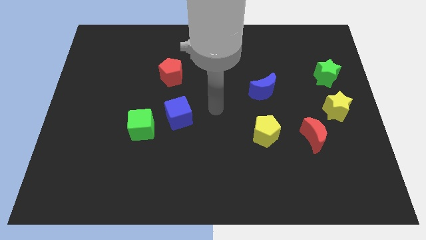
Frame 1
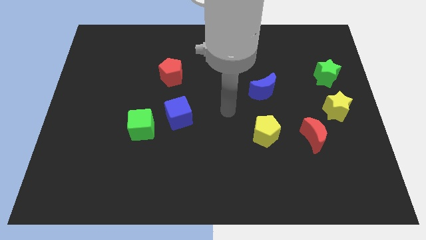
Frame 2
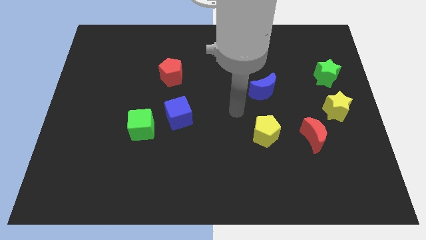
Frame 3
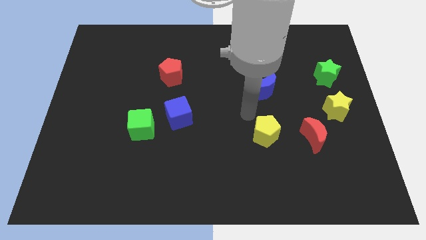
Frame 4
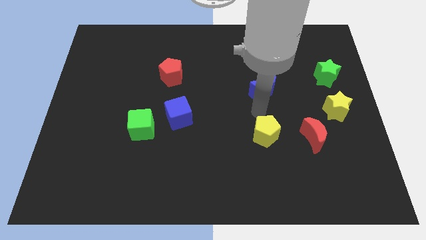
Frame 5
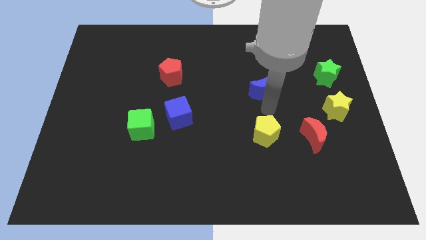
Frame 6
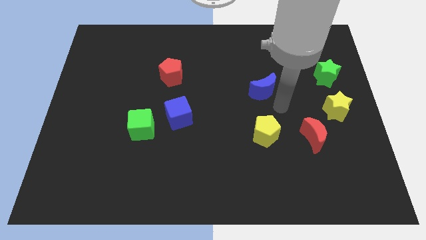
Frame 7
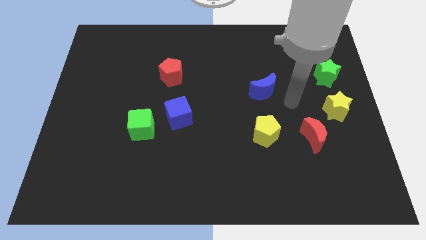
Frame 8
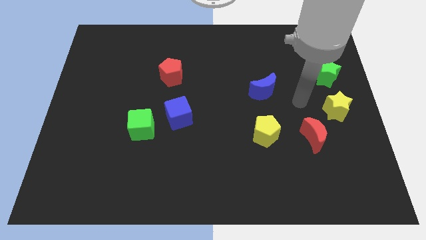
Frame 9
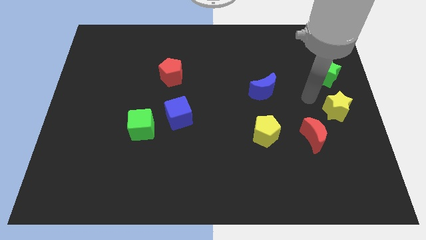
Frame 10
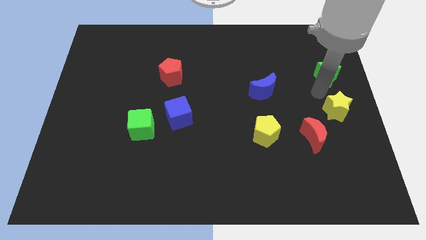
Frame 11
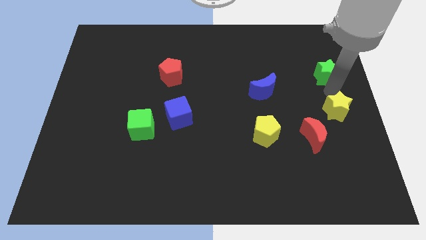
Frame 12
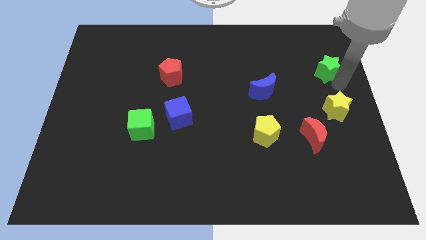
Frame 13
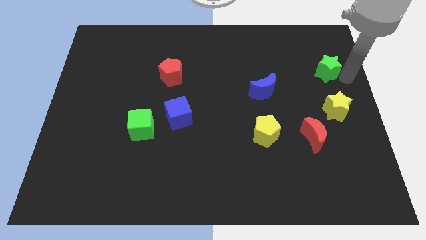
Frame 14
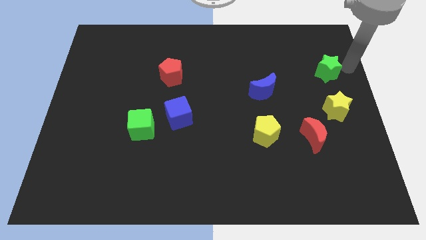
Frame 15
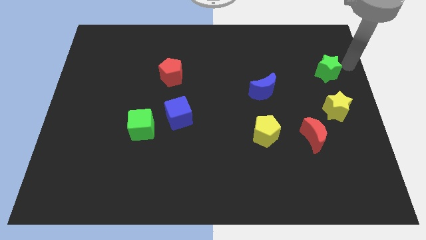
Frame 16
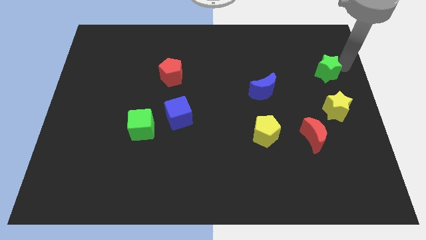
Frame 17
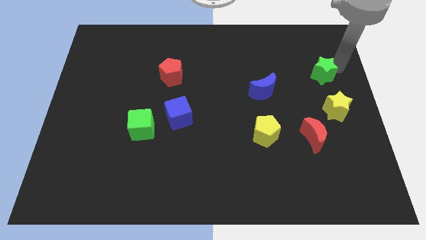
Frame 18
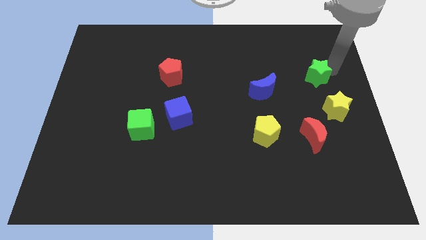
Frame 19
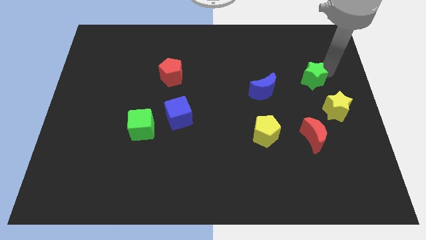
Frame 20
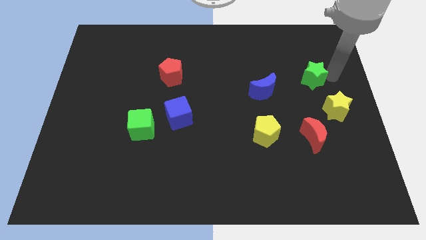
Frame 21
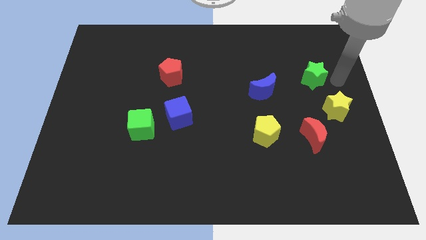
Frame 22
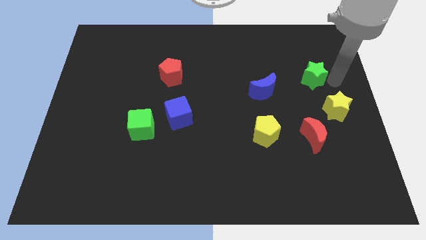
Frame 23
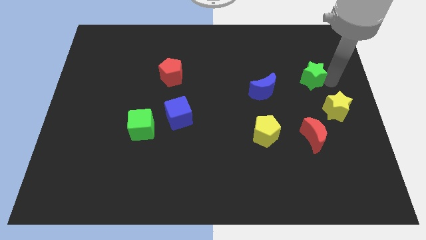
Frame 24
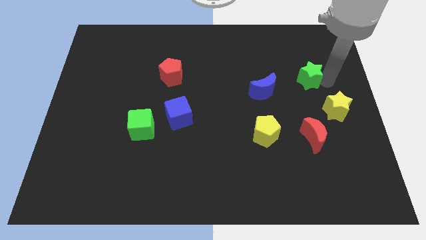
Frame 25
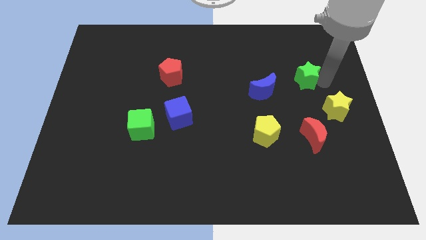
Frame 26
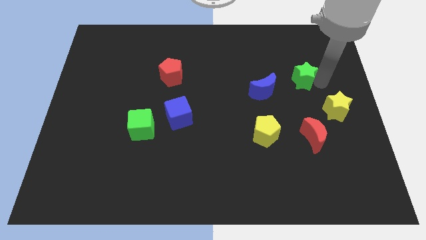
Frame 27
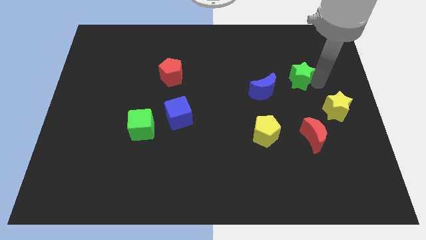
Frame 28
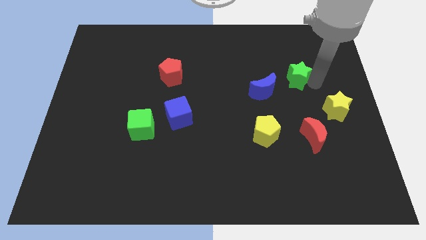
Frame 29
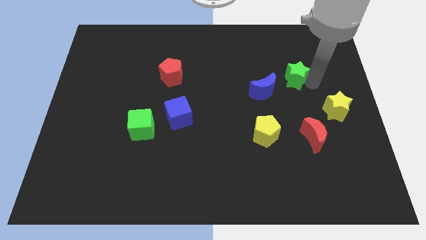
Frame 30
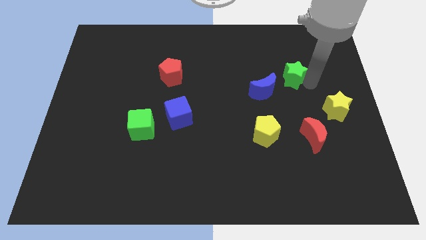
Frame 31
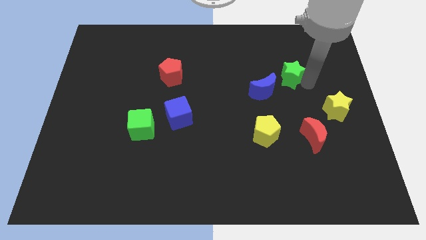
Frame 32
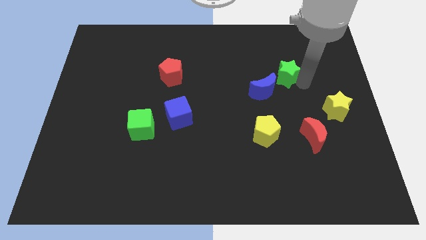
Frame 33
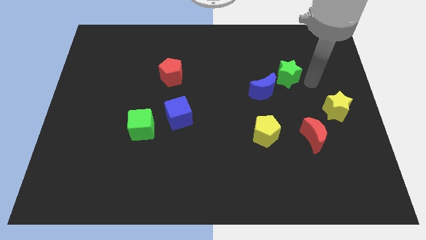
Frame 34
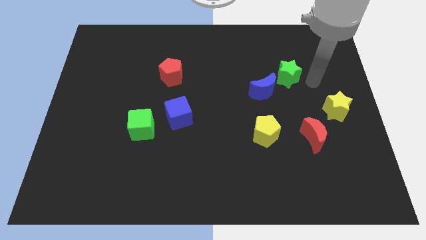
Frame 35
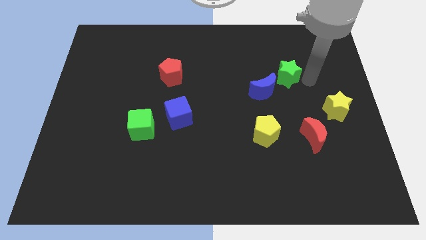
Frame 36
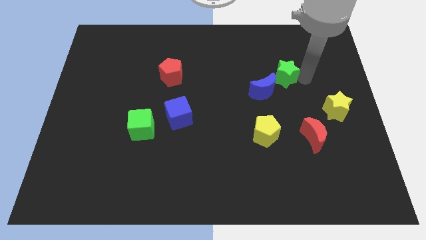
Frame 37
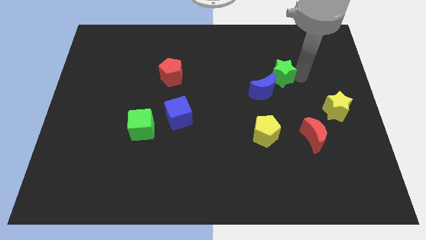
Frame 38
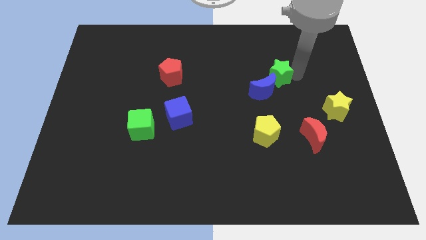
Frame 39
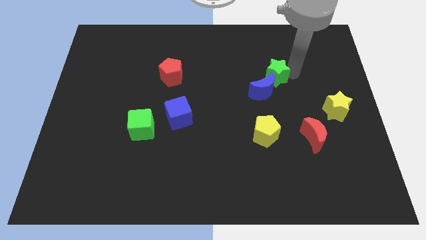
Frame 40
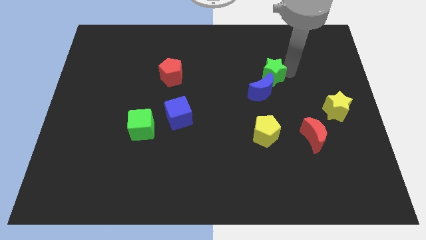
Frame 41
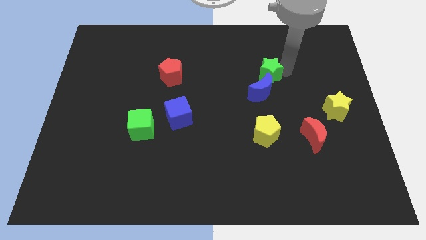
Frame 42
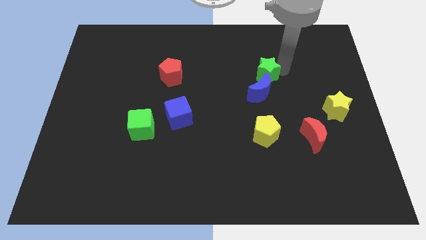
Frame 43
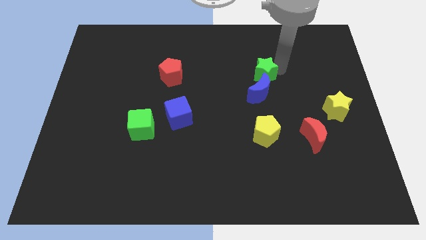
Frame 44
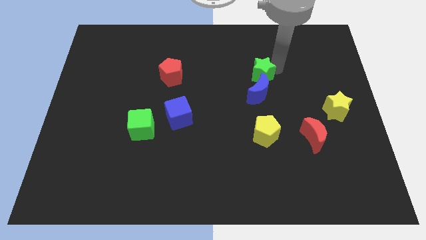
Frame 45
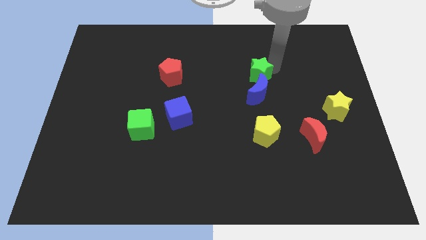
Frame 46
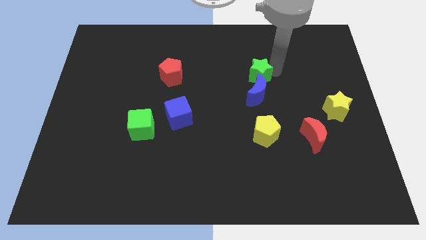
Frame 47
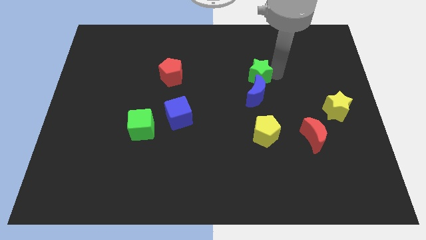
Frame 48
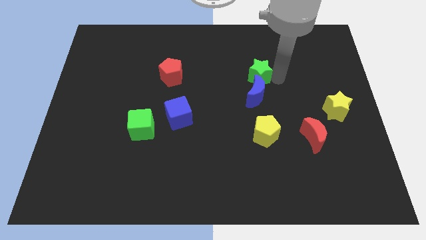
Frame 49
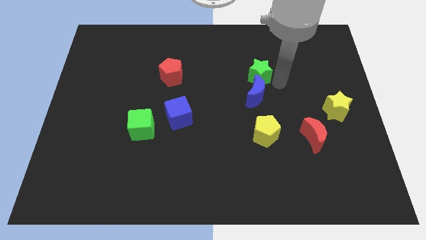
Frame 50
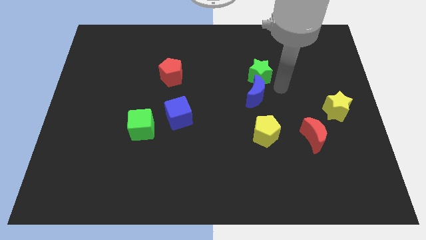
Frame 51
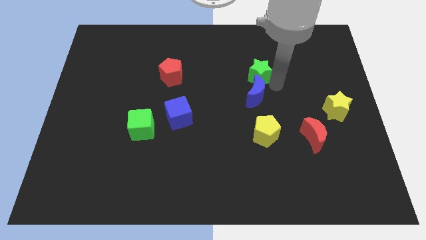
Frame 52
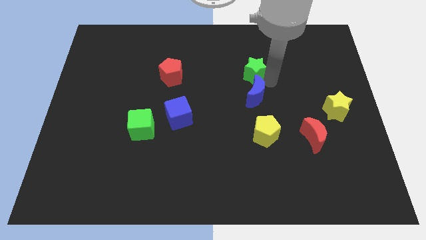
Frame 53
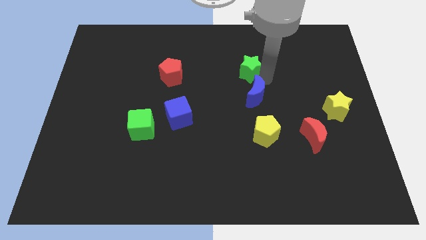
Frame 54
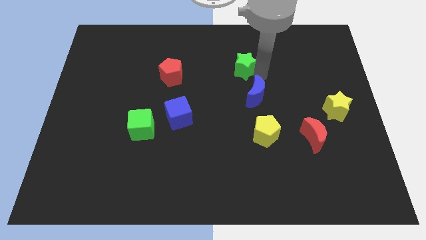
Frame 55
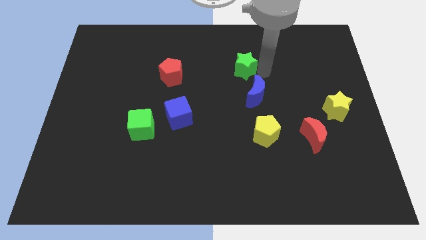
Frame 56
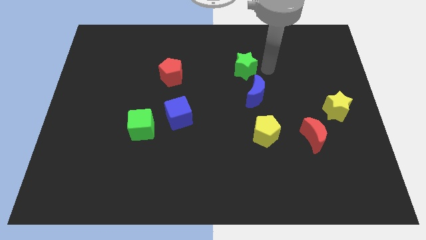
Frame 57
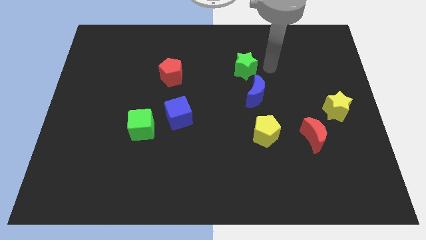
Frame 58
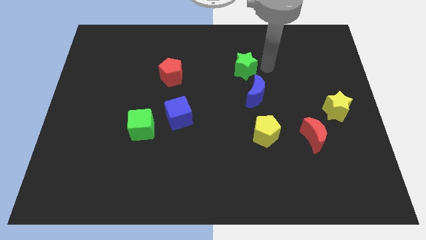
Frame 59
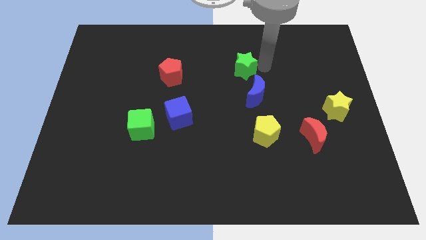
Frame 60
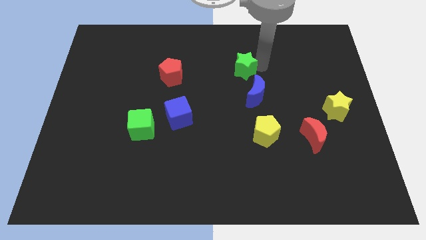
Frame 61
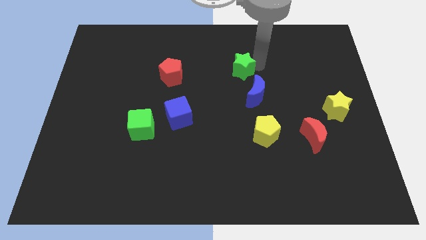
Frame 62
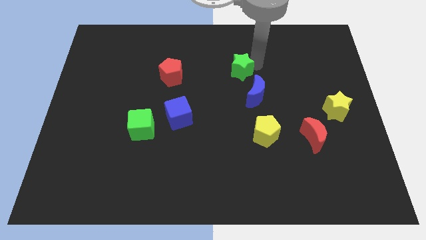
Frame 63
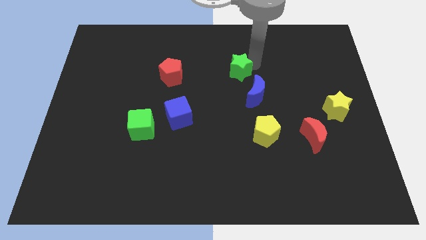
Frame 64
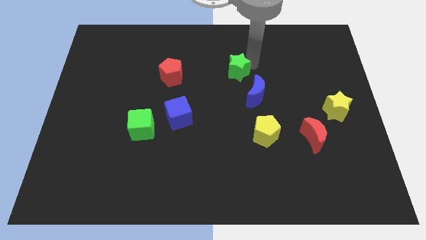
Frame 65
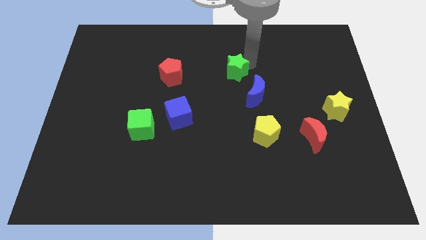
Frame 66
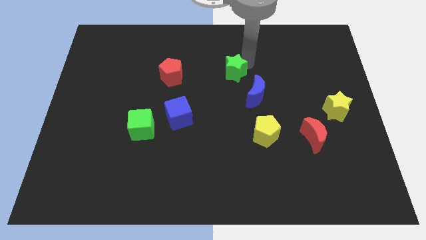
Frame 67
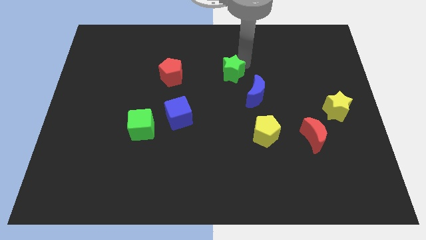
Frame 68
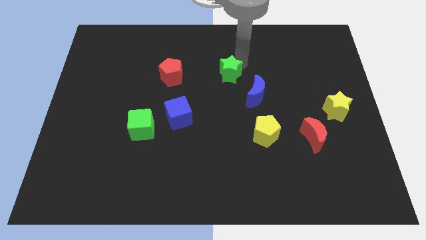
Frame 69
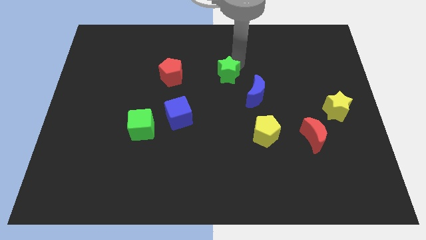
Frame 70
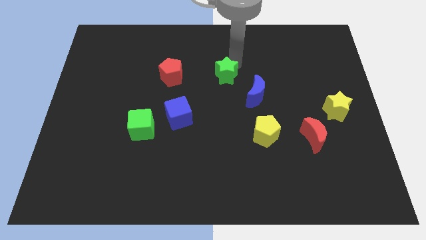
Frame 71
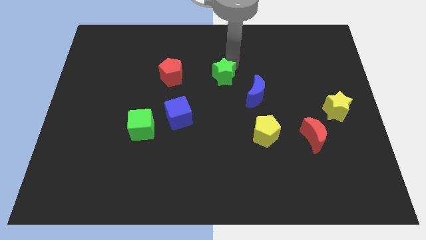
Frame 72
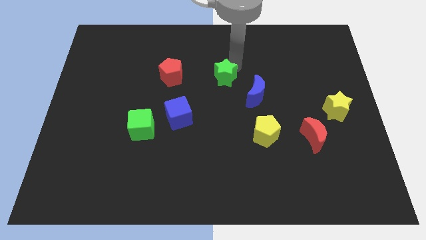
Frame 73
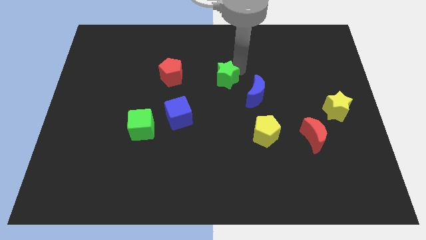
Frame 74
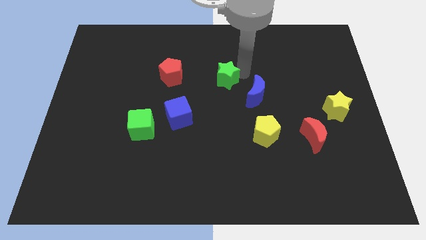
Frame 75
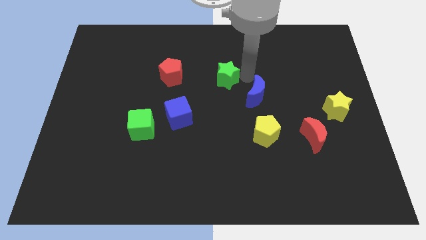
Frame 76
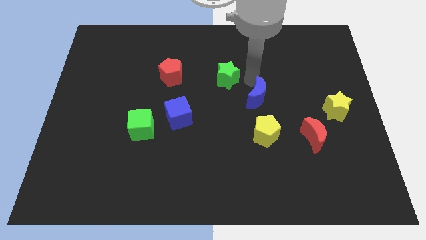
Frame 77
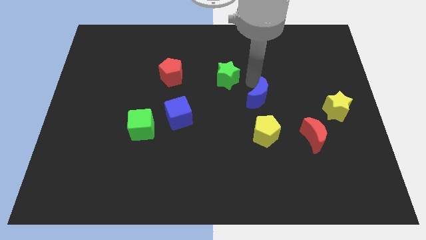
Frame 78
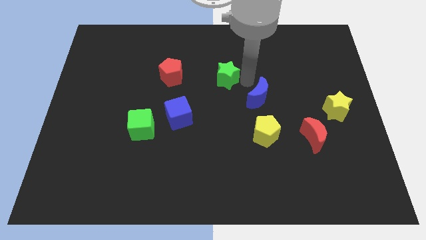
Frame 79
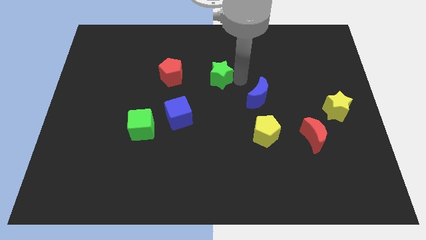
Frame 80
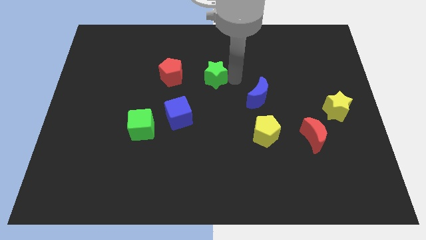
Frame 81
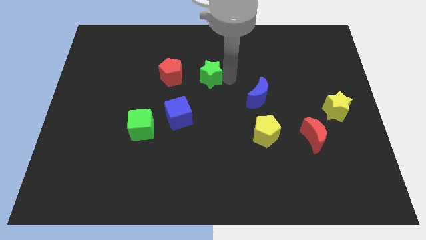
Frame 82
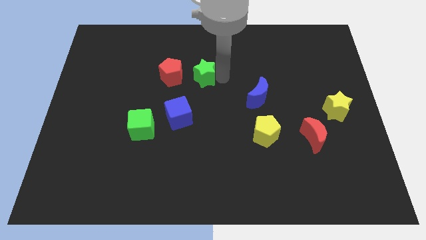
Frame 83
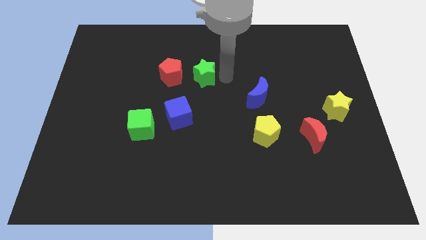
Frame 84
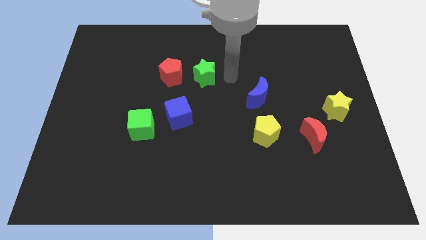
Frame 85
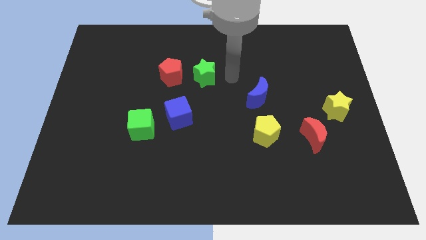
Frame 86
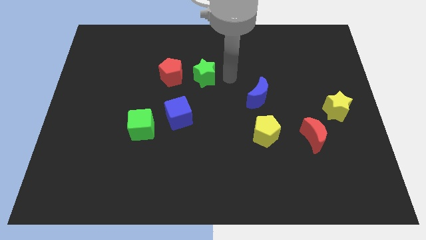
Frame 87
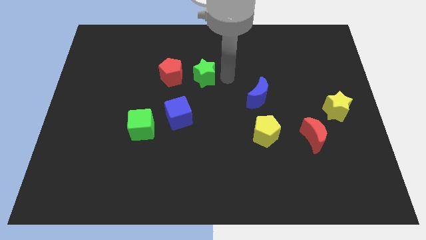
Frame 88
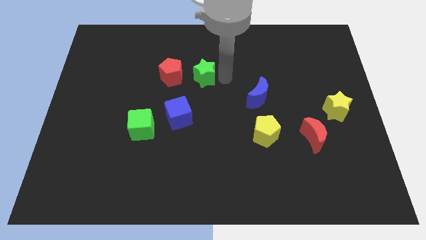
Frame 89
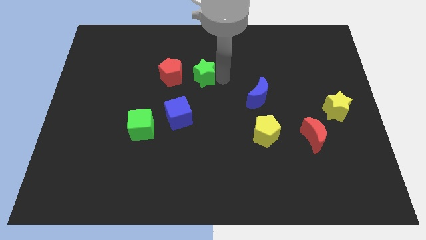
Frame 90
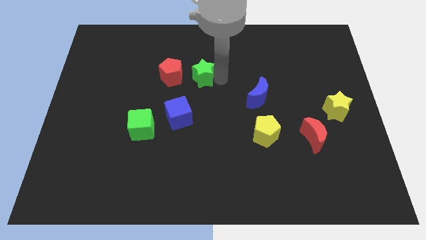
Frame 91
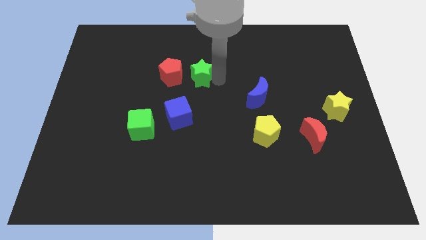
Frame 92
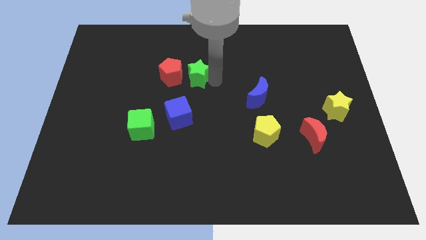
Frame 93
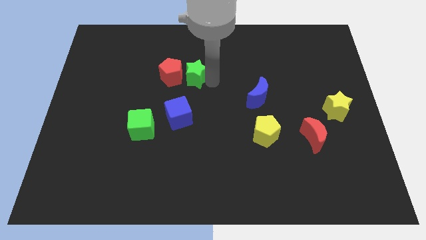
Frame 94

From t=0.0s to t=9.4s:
push the green star close to the red pentagon
